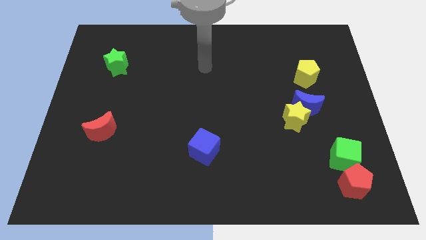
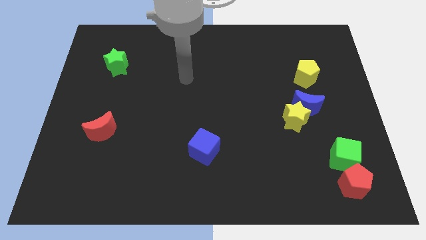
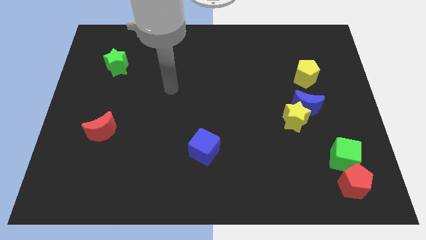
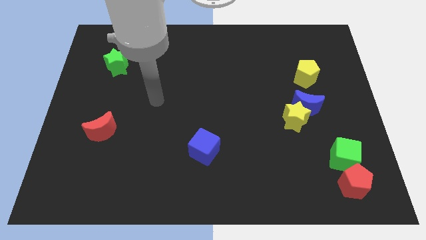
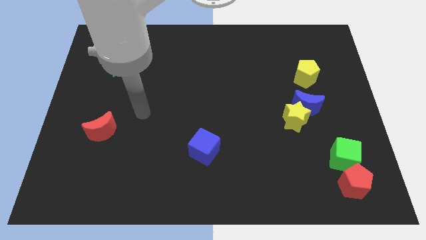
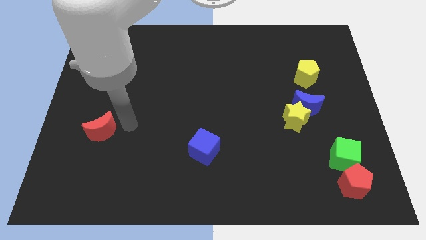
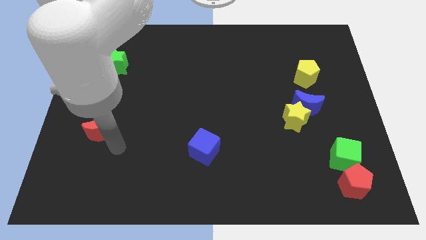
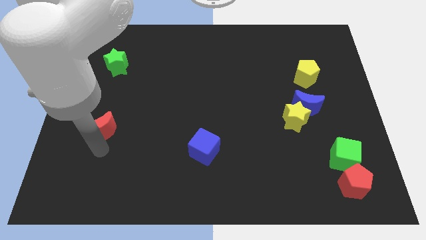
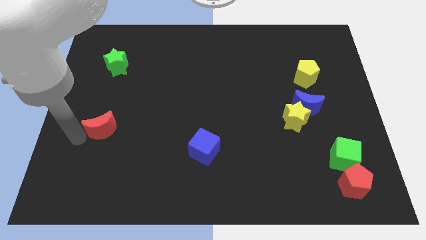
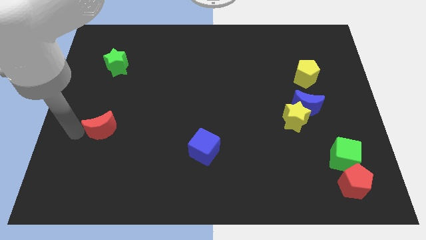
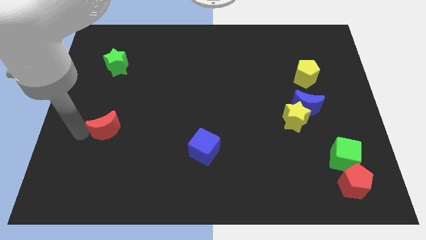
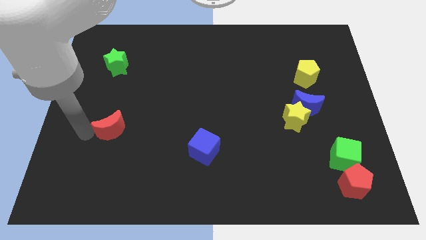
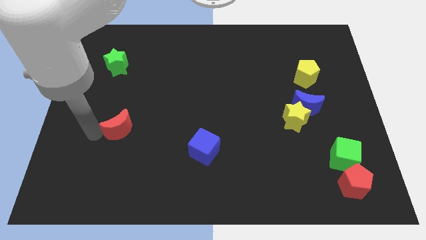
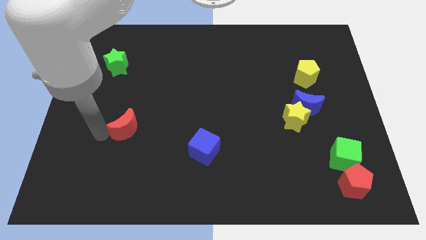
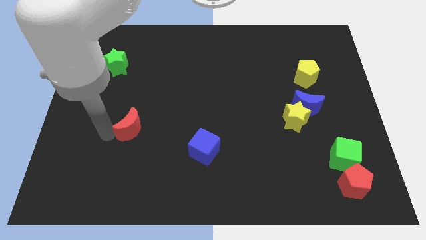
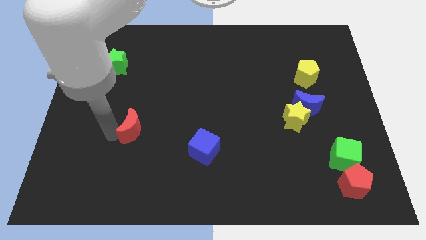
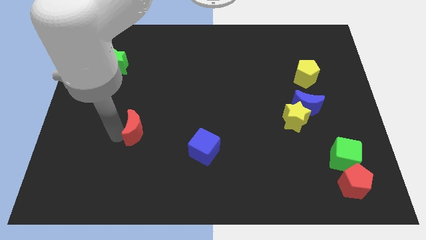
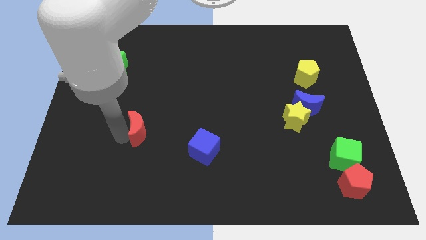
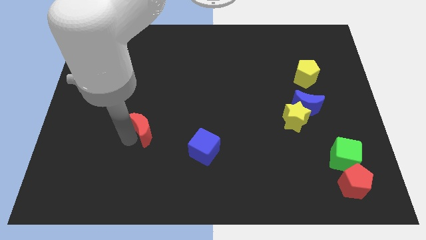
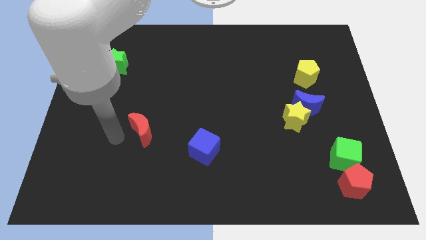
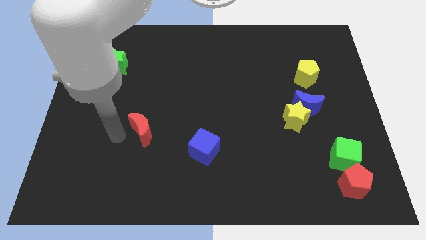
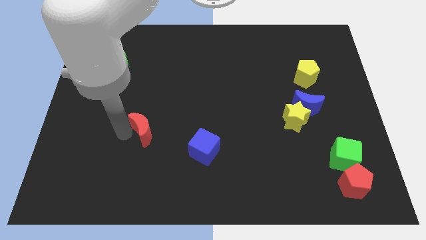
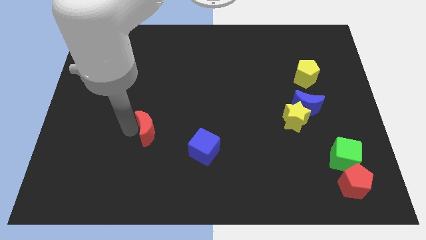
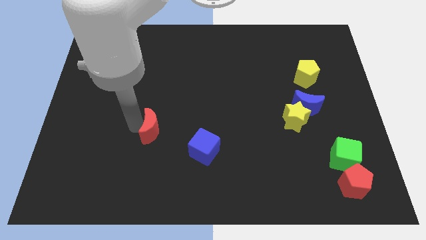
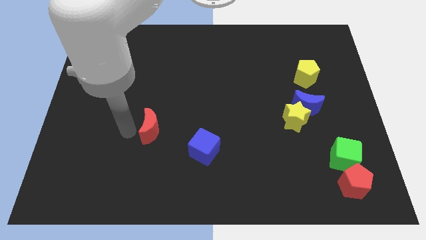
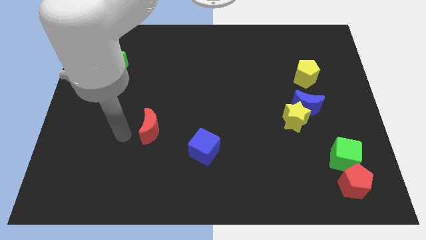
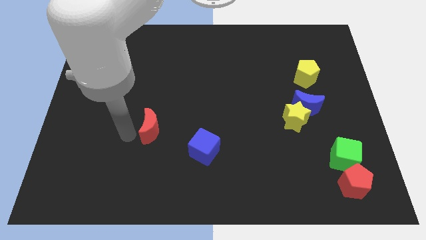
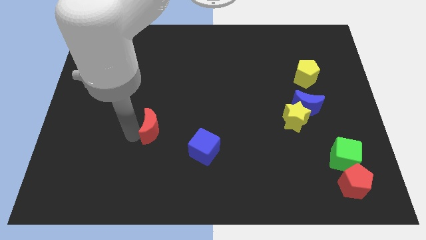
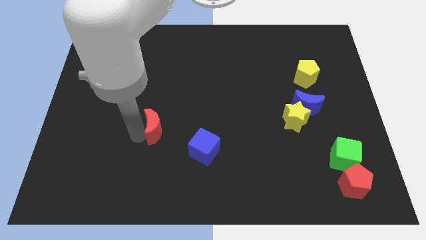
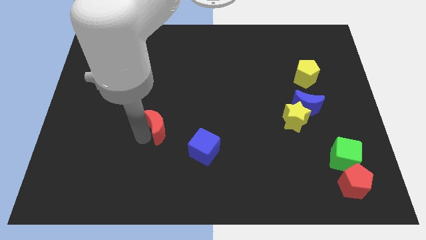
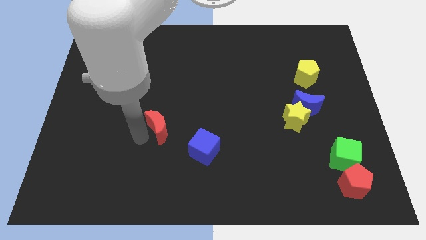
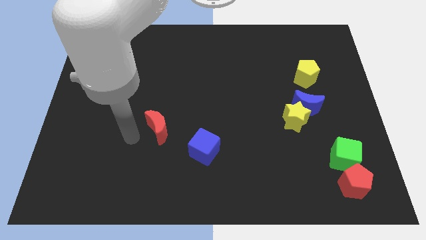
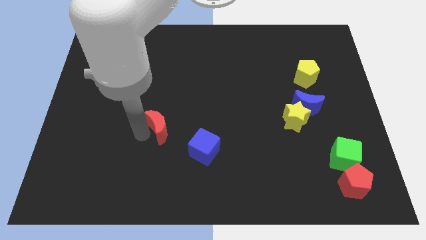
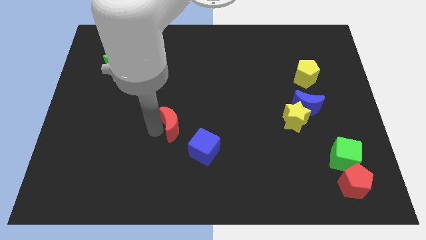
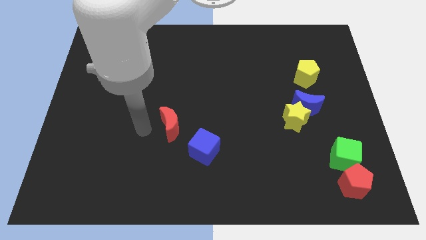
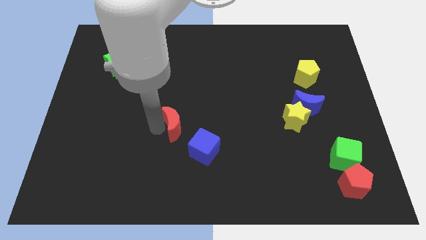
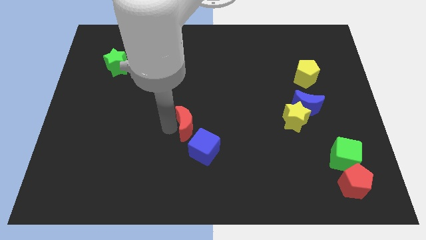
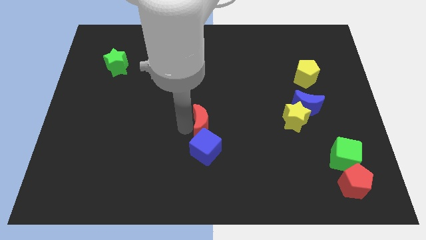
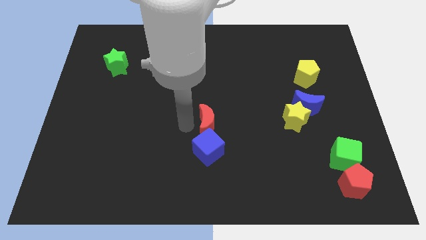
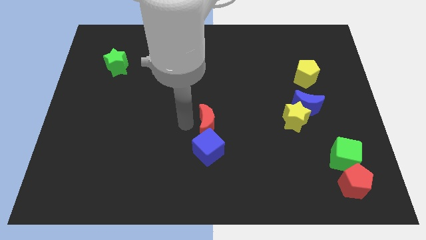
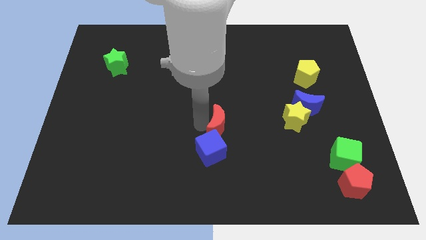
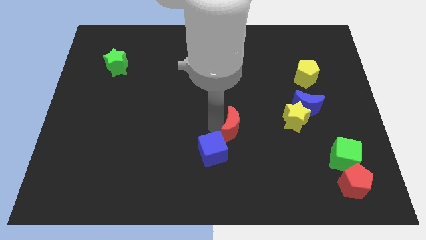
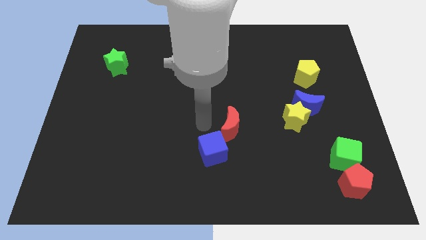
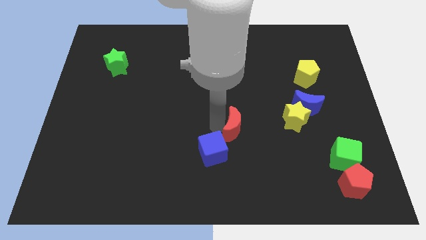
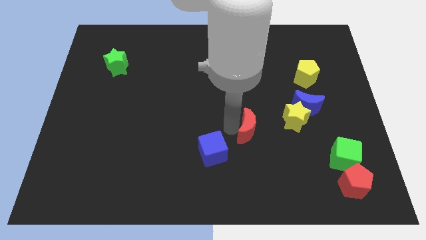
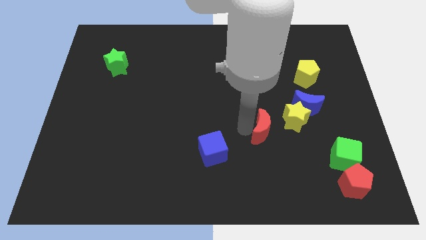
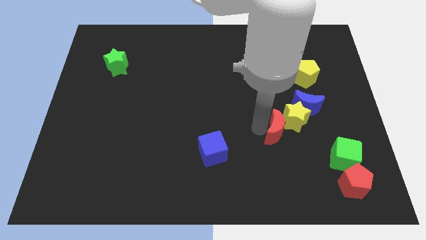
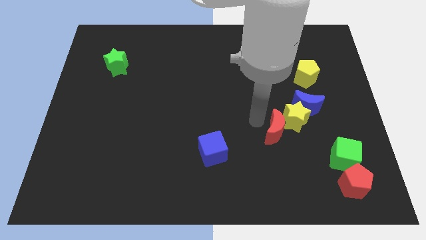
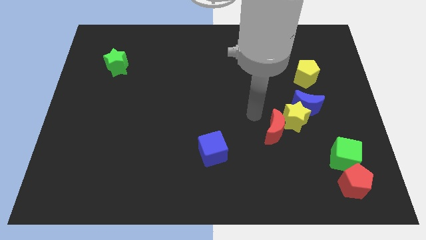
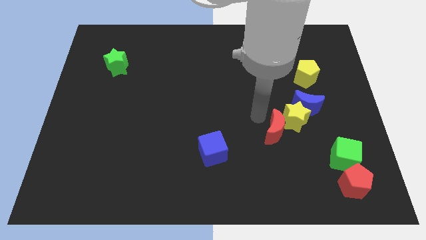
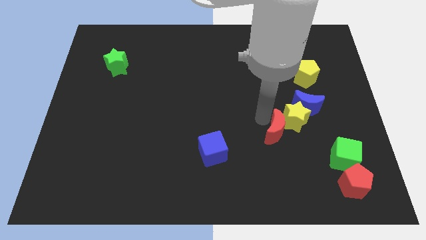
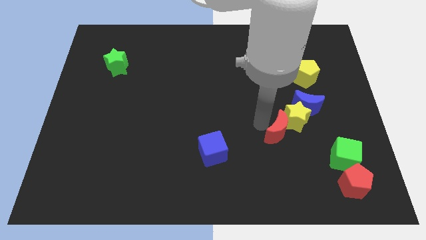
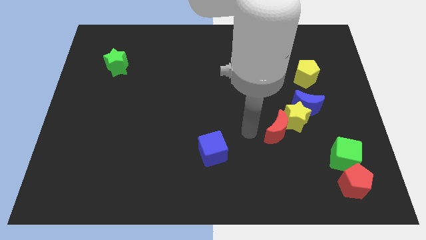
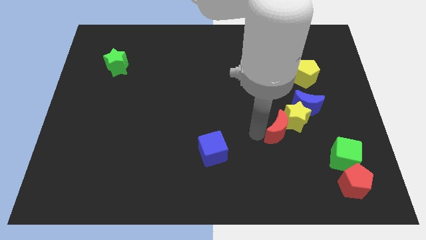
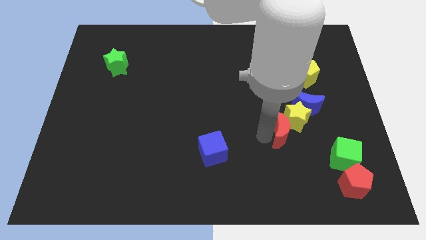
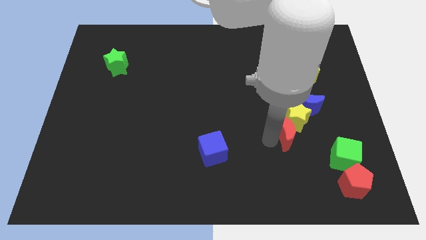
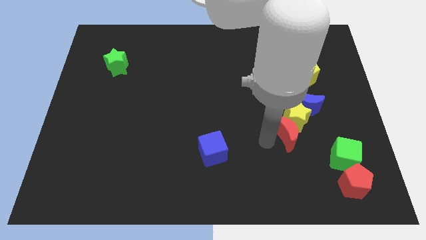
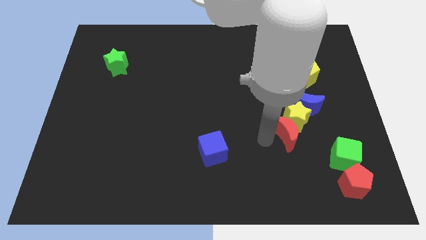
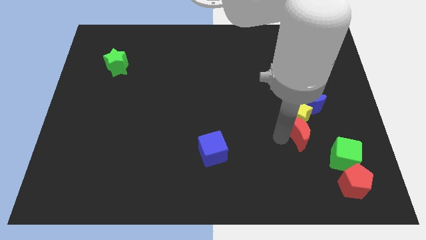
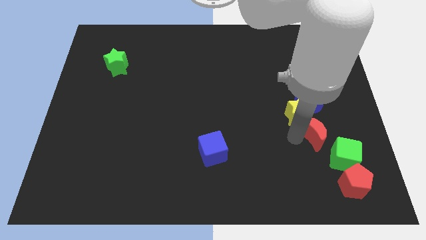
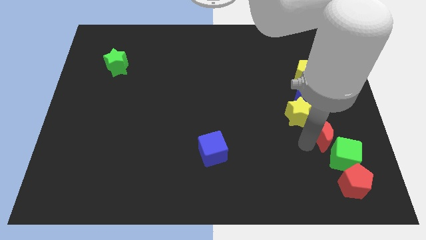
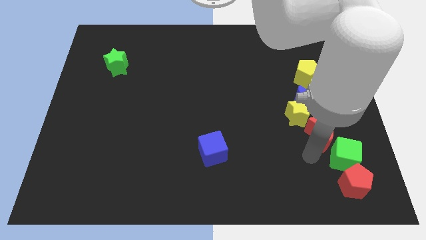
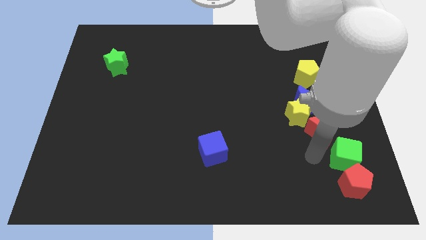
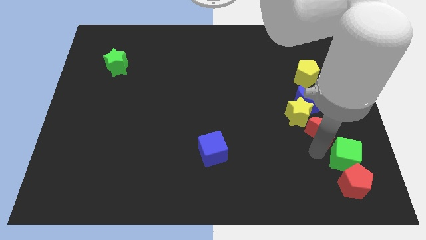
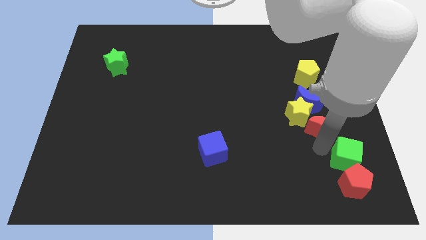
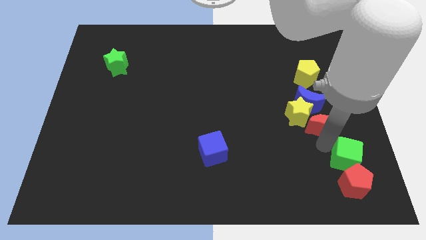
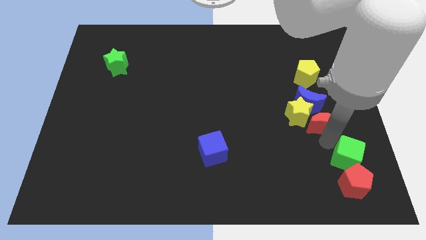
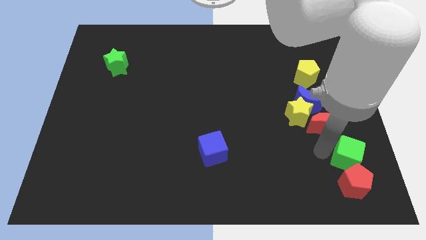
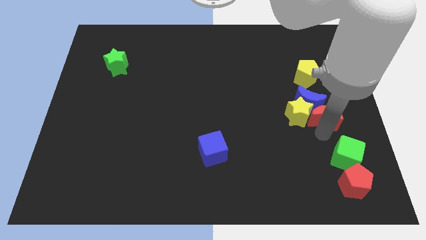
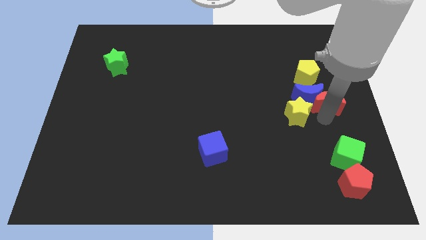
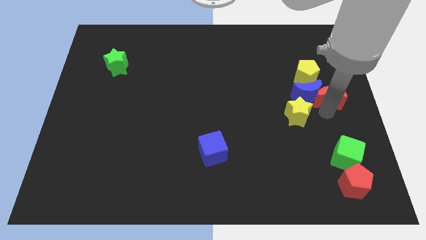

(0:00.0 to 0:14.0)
push the red moon diagonally up and to the right of the blue moon
